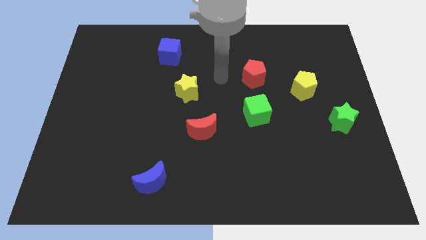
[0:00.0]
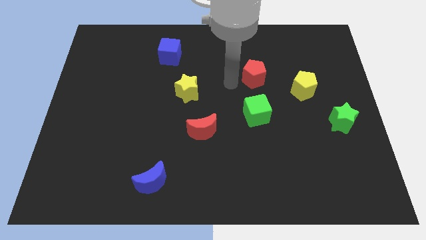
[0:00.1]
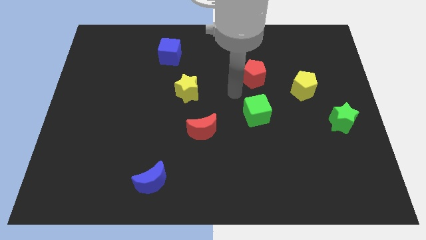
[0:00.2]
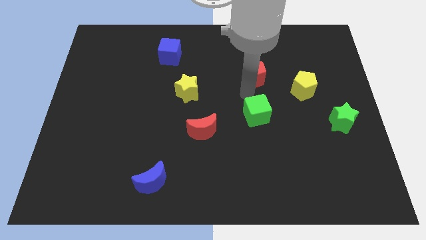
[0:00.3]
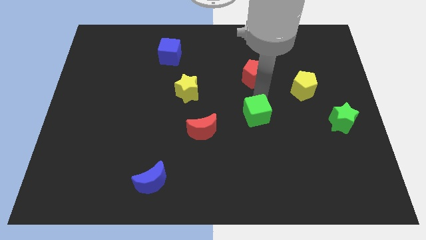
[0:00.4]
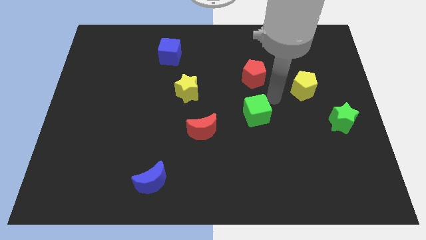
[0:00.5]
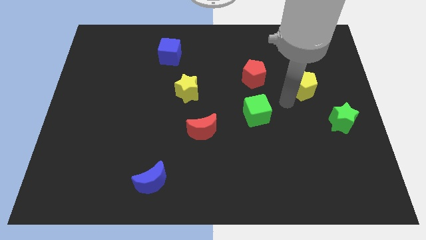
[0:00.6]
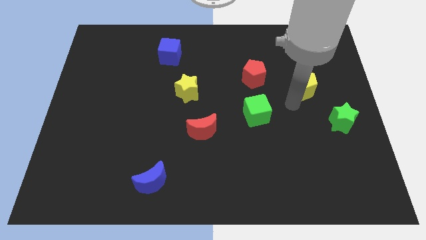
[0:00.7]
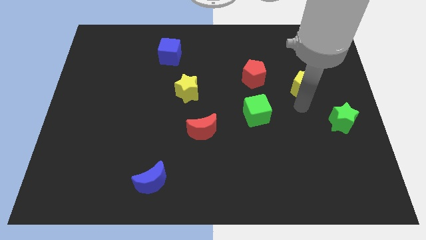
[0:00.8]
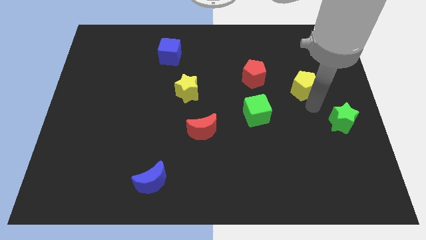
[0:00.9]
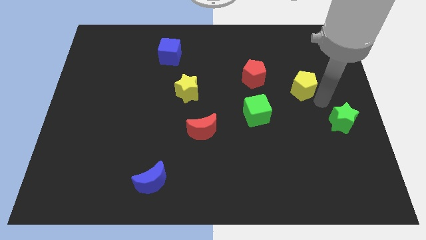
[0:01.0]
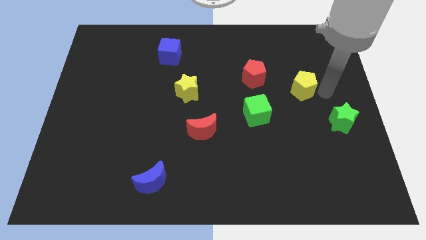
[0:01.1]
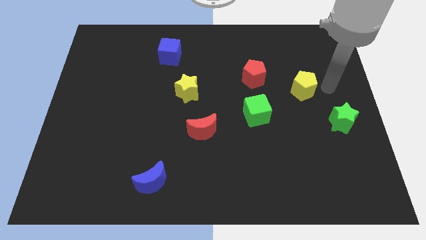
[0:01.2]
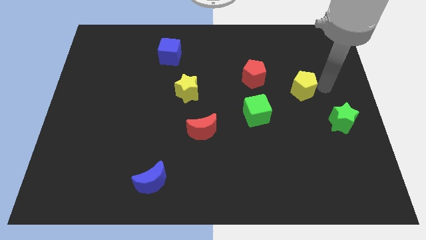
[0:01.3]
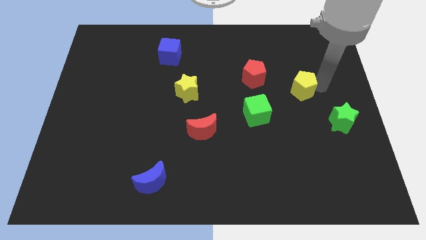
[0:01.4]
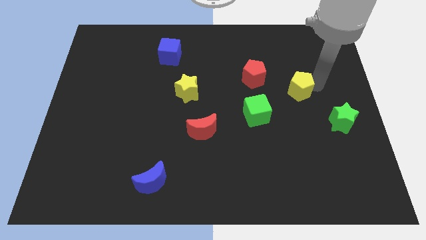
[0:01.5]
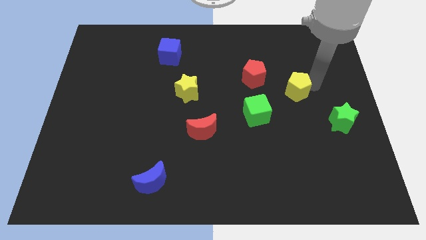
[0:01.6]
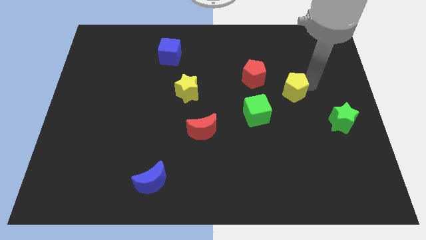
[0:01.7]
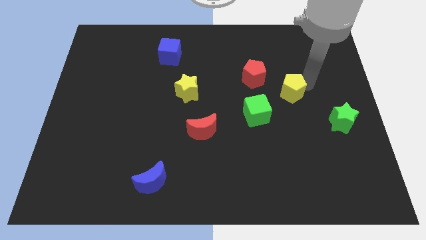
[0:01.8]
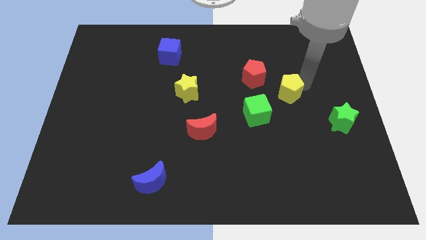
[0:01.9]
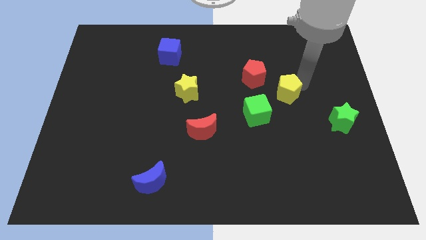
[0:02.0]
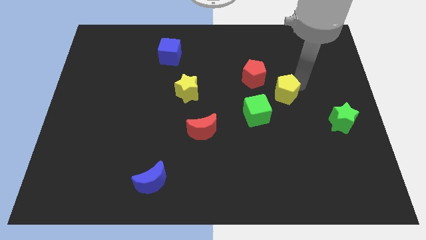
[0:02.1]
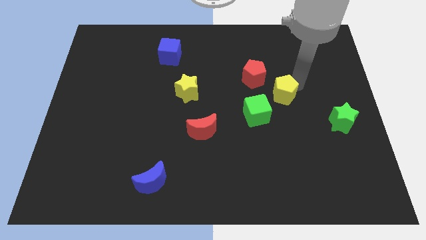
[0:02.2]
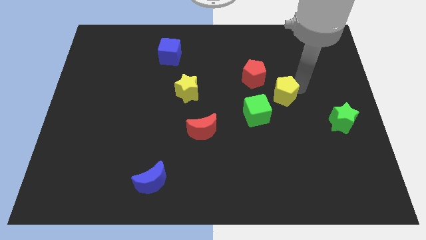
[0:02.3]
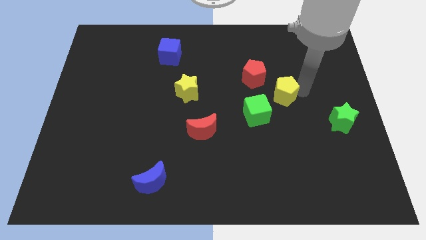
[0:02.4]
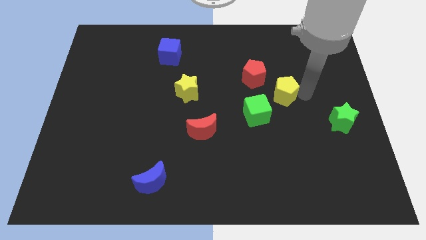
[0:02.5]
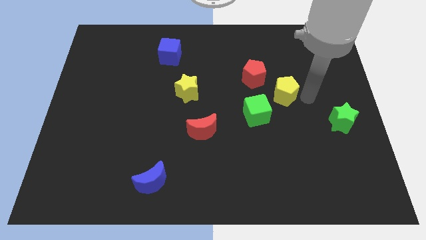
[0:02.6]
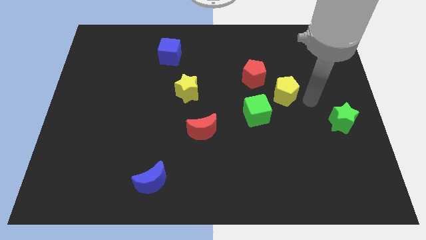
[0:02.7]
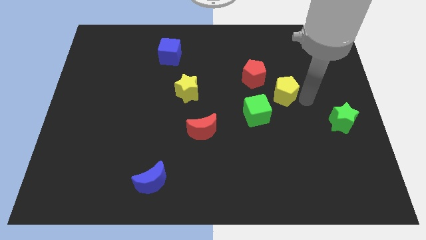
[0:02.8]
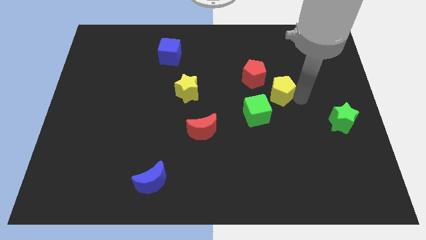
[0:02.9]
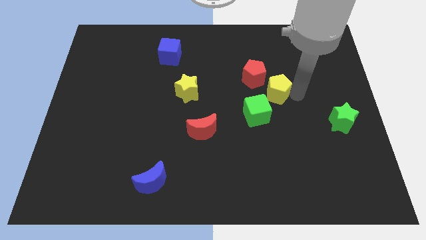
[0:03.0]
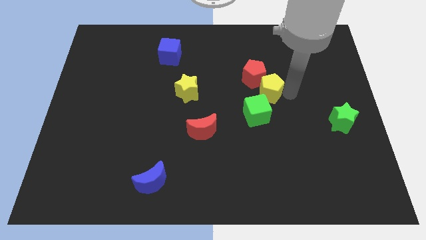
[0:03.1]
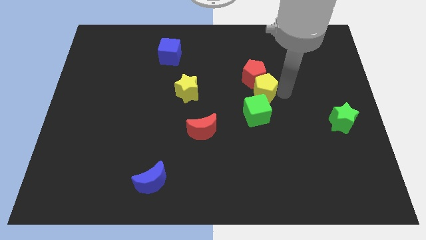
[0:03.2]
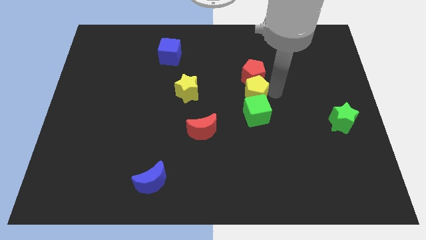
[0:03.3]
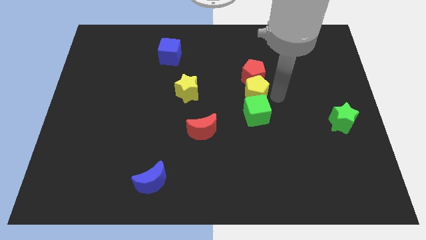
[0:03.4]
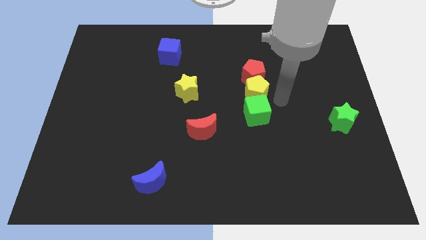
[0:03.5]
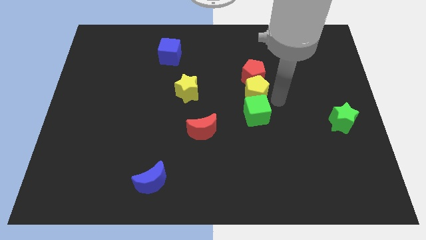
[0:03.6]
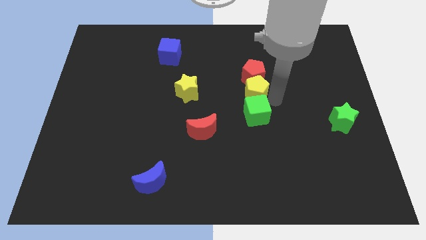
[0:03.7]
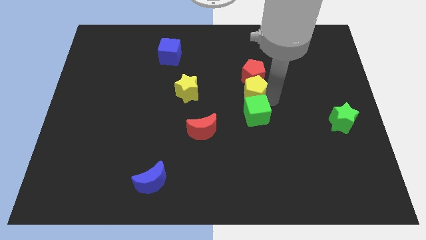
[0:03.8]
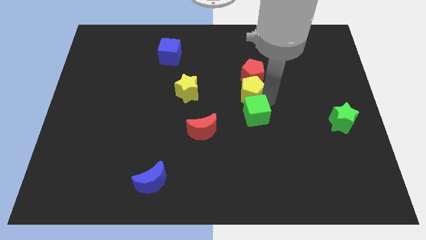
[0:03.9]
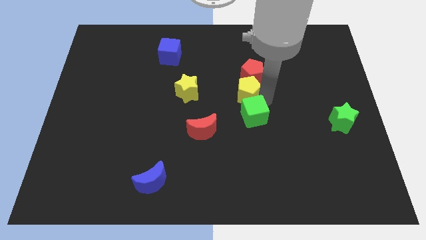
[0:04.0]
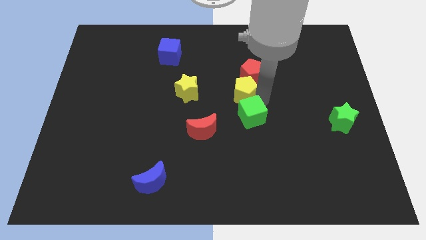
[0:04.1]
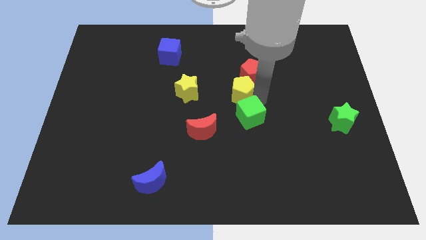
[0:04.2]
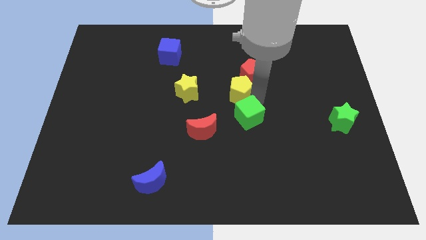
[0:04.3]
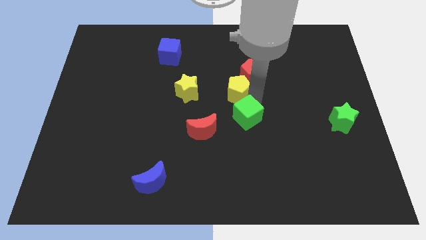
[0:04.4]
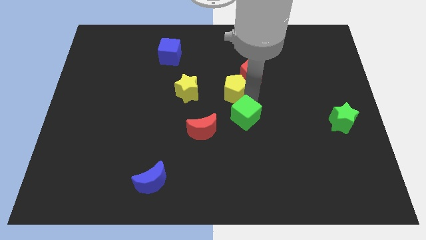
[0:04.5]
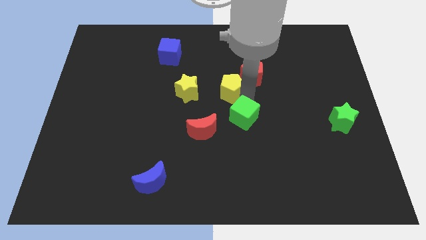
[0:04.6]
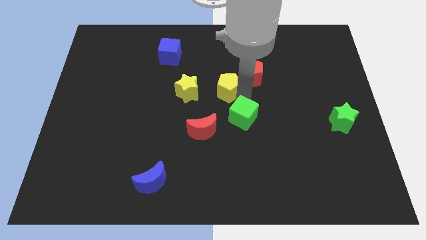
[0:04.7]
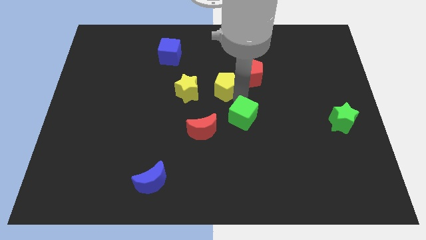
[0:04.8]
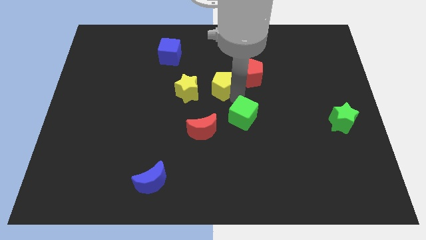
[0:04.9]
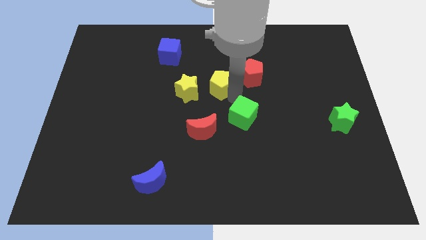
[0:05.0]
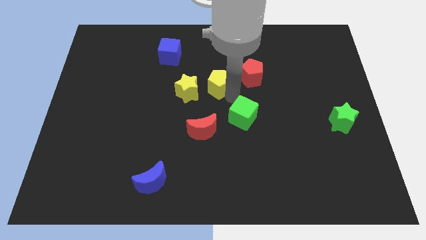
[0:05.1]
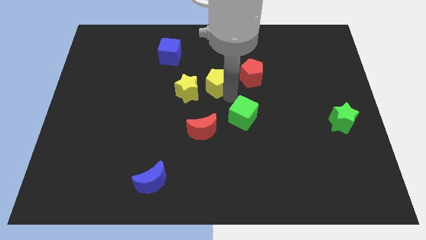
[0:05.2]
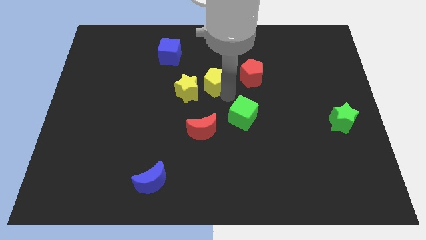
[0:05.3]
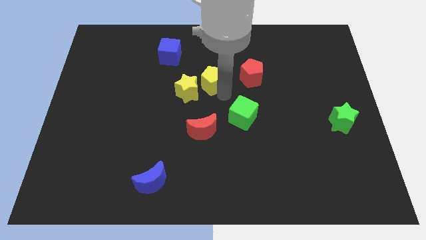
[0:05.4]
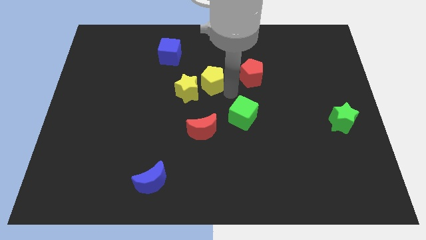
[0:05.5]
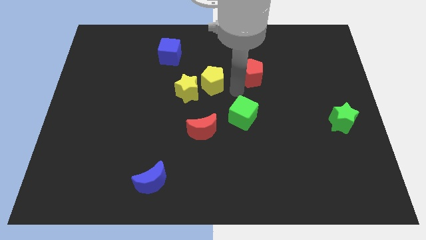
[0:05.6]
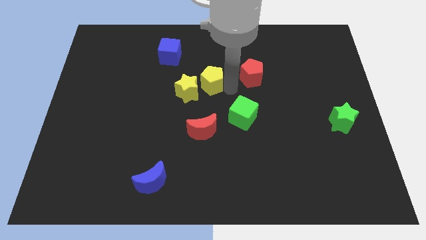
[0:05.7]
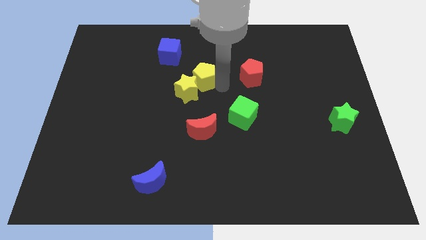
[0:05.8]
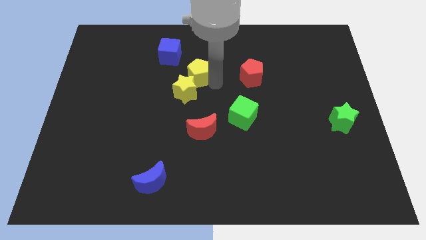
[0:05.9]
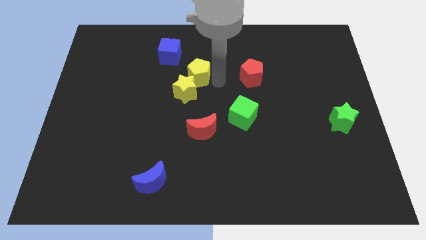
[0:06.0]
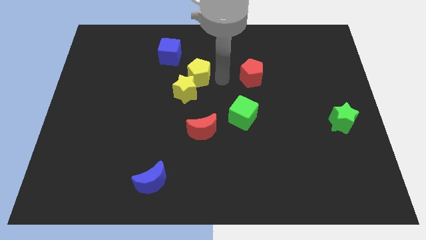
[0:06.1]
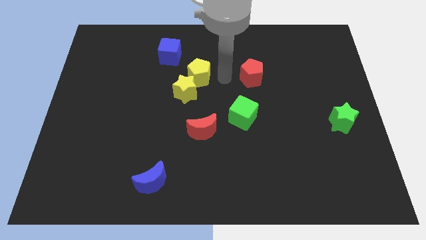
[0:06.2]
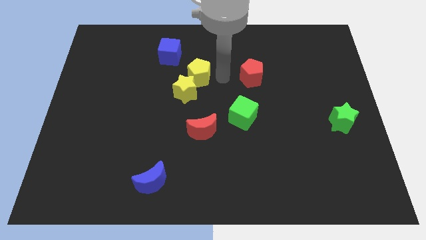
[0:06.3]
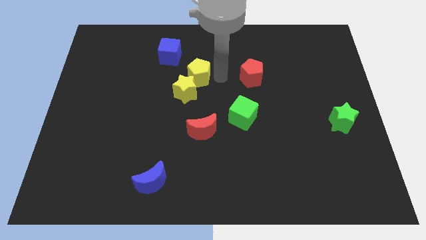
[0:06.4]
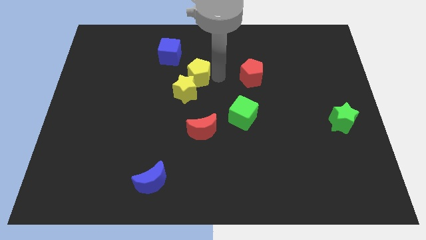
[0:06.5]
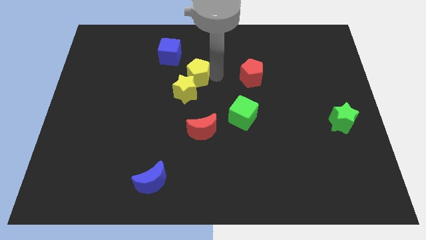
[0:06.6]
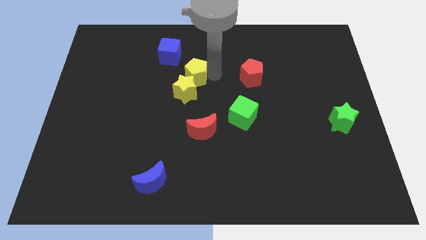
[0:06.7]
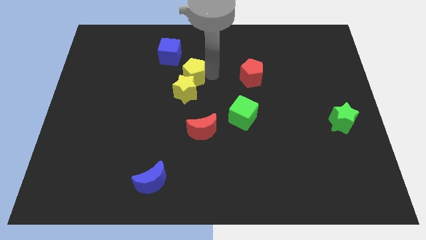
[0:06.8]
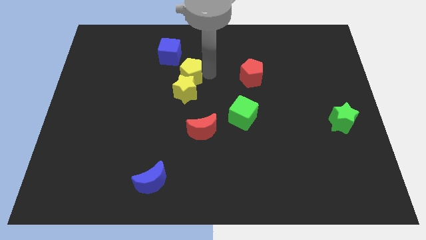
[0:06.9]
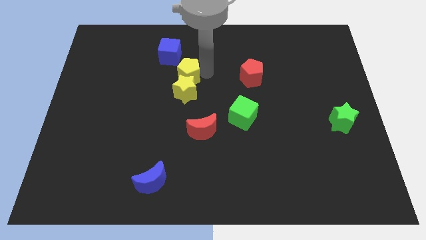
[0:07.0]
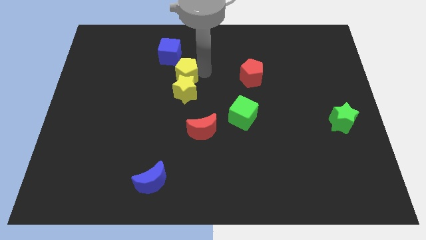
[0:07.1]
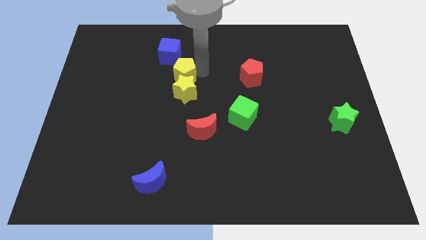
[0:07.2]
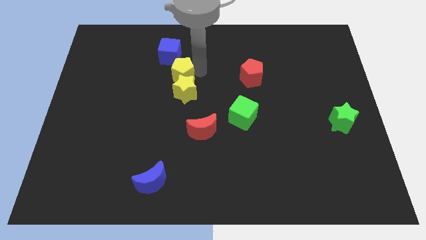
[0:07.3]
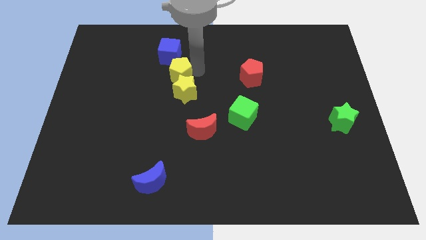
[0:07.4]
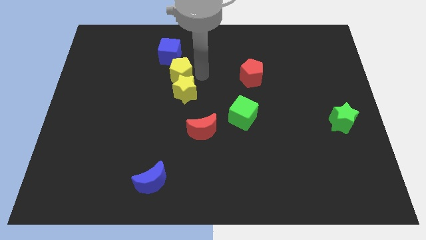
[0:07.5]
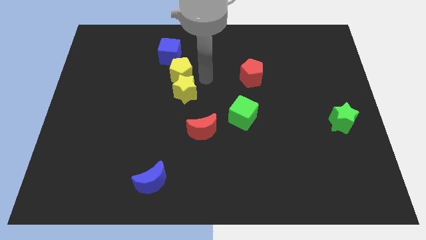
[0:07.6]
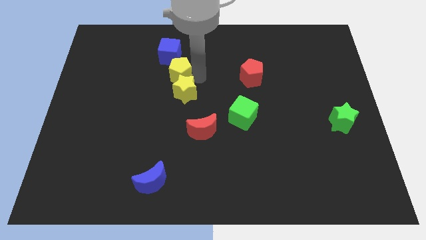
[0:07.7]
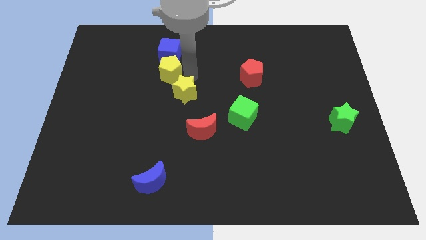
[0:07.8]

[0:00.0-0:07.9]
push the yellow pentagon to the bottom left of the blue cube
